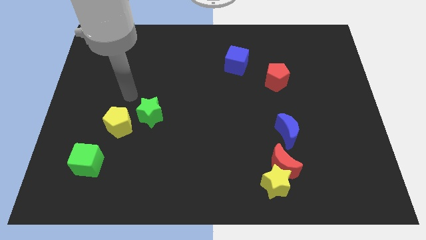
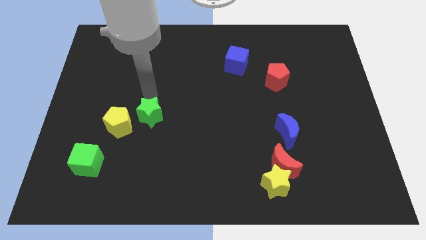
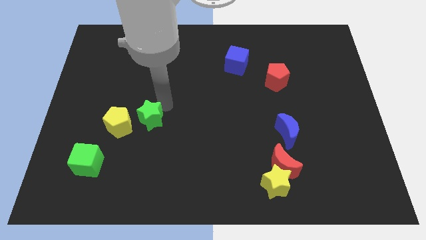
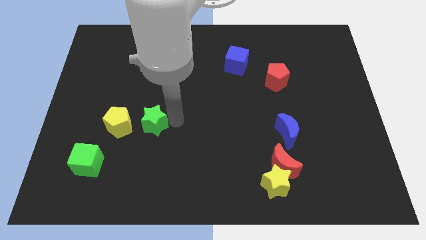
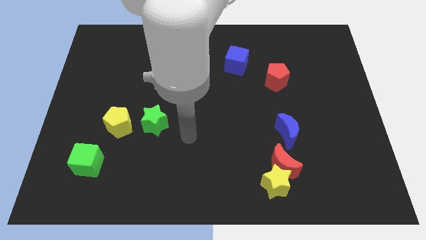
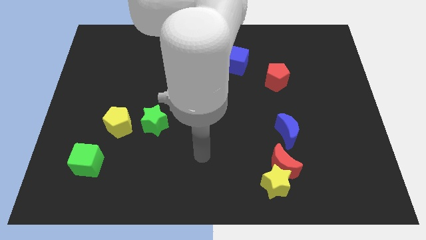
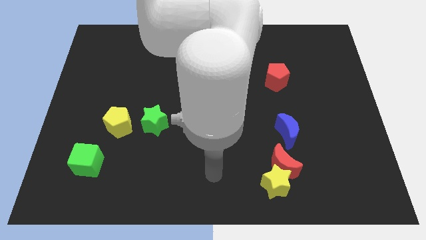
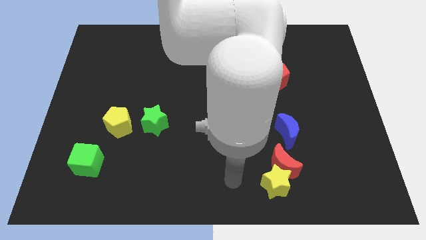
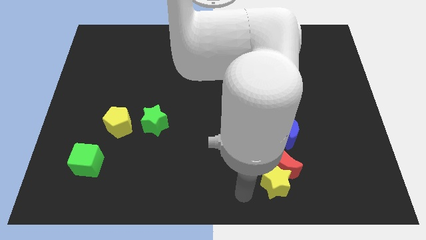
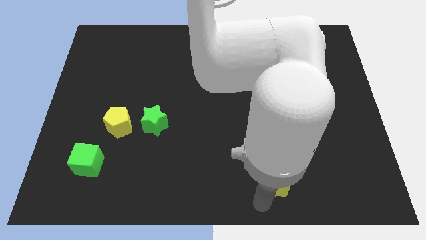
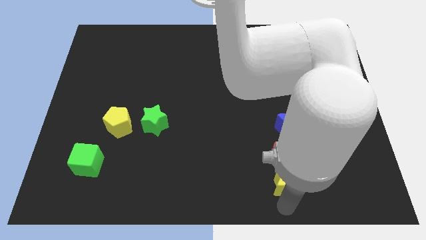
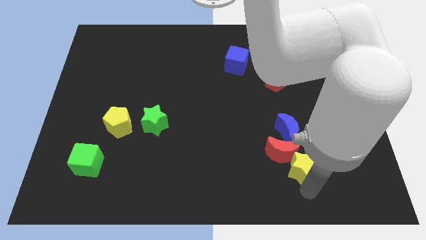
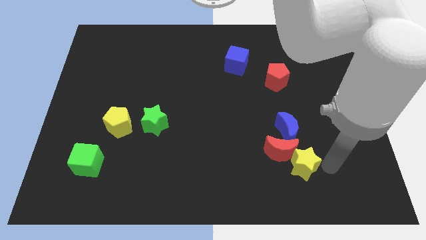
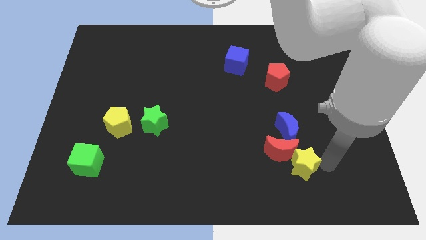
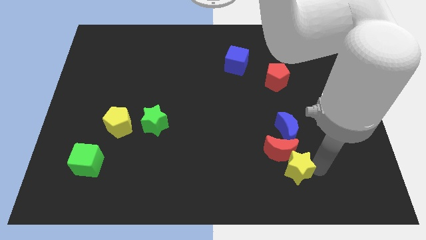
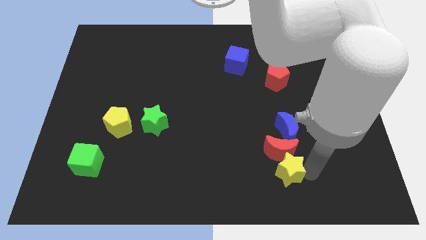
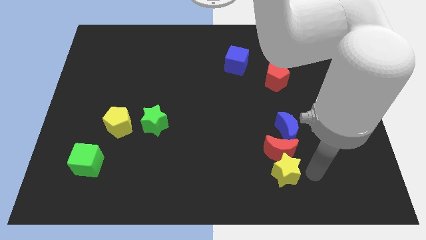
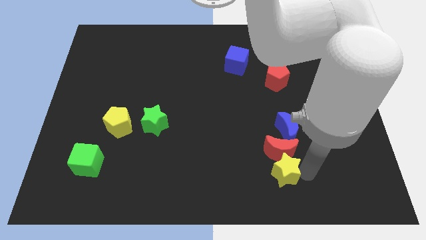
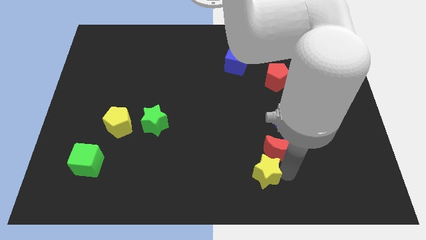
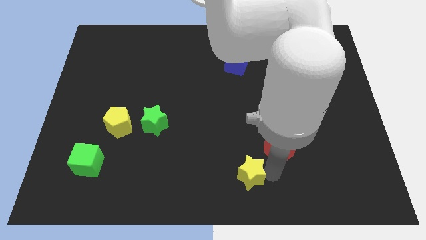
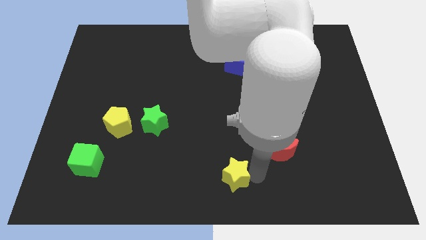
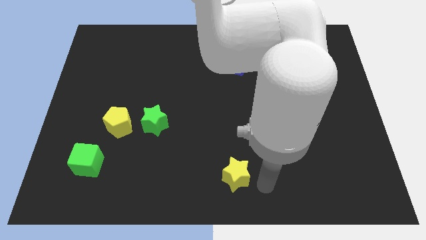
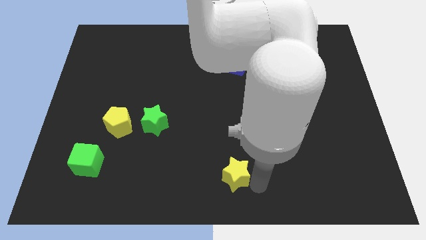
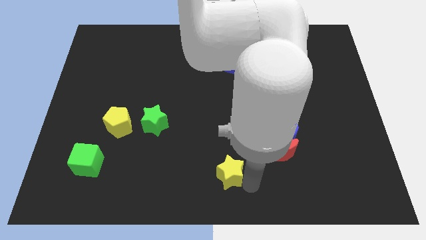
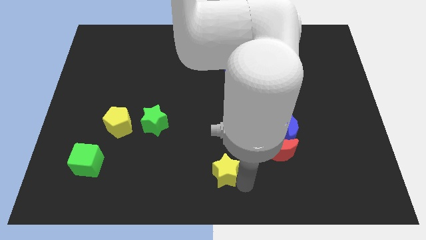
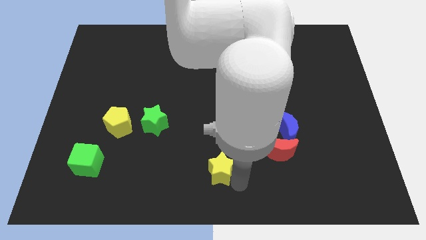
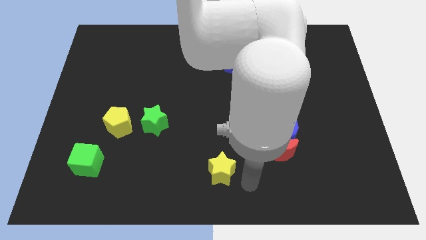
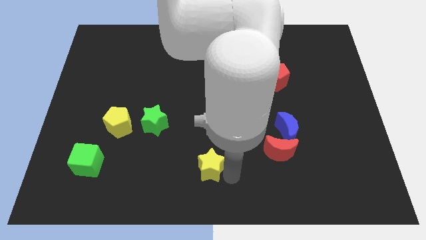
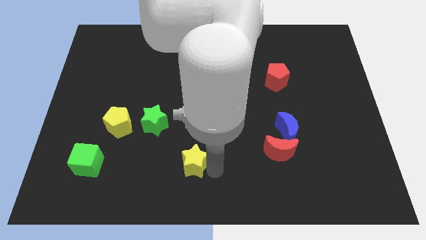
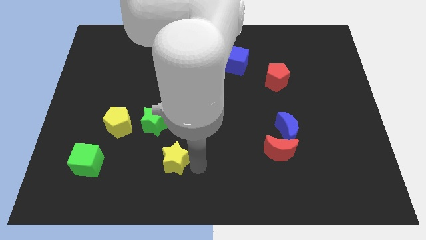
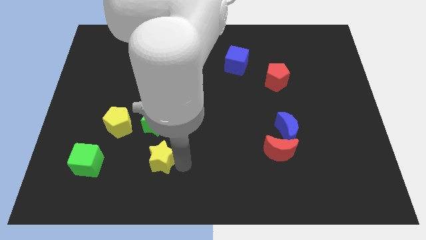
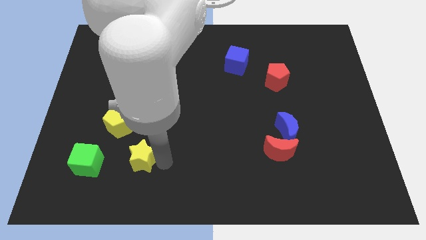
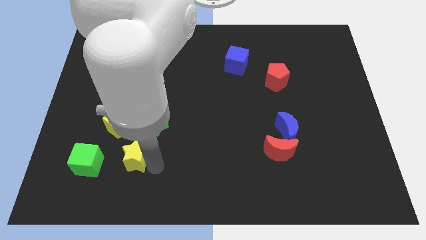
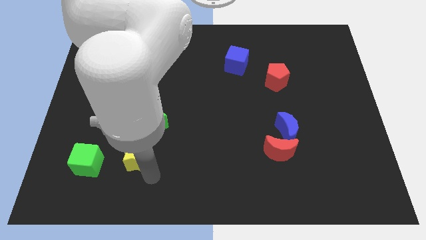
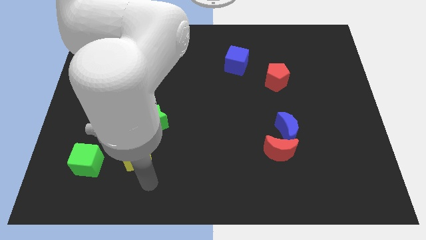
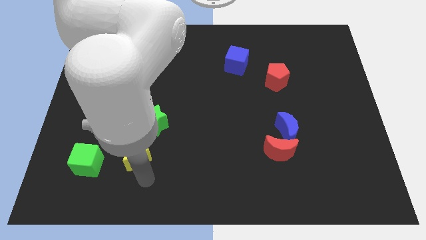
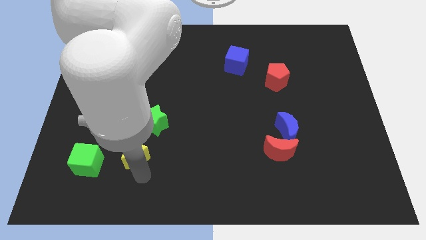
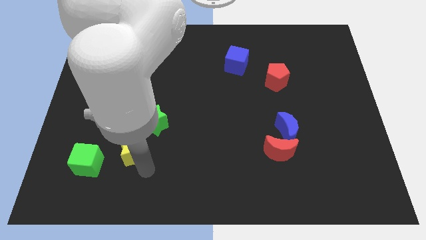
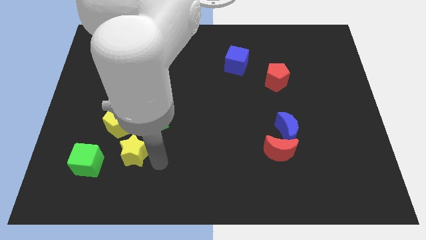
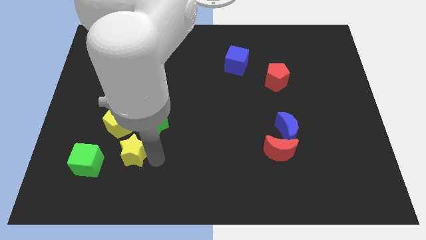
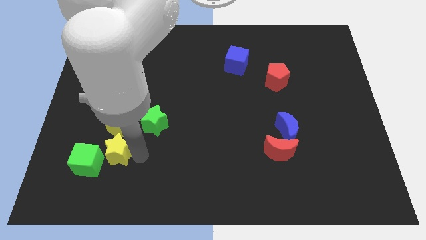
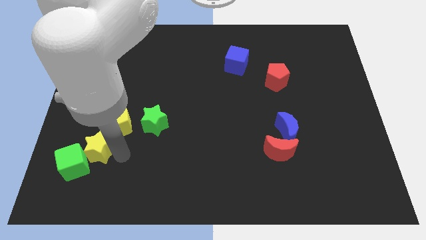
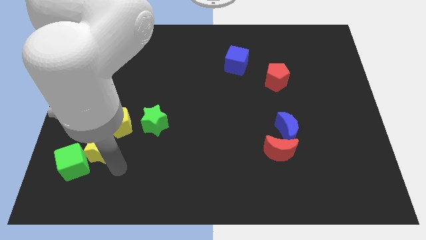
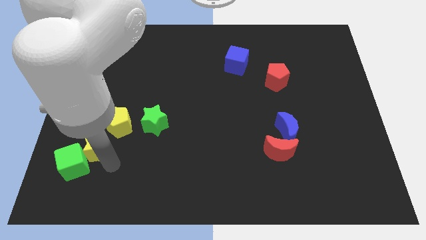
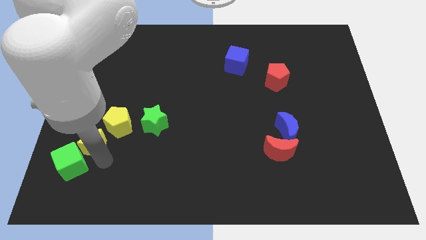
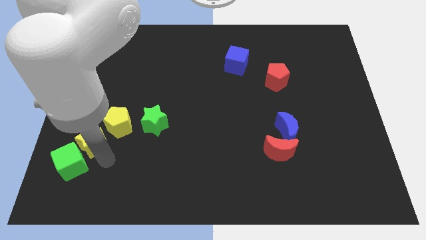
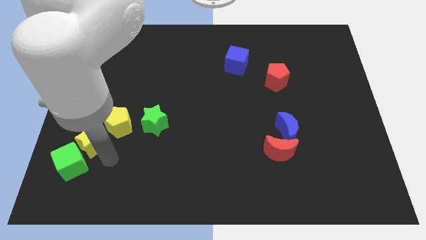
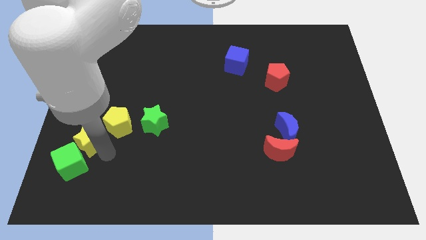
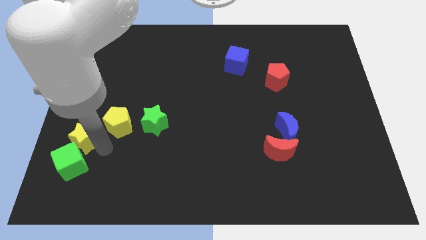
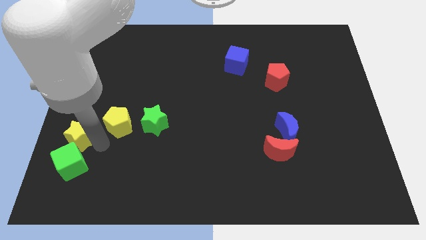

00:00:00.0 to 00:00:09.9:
put the yellow star to the left side of the board

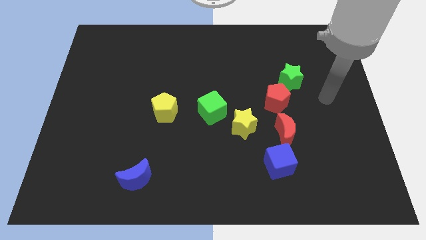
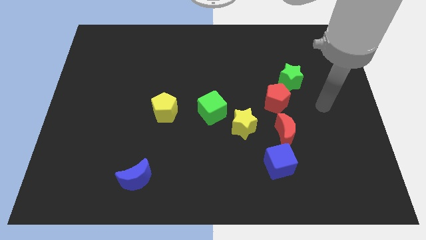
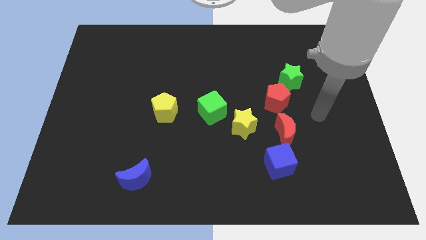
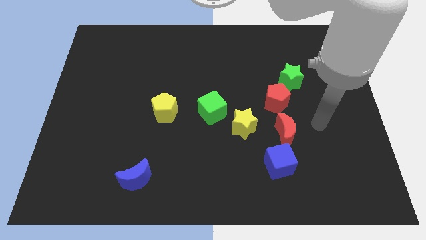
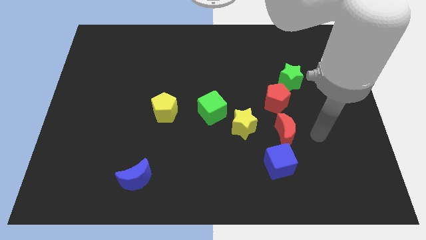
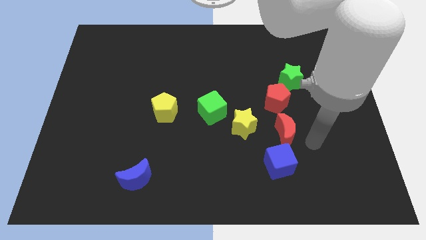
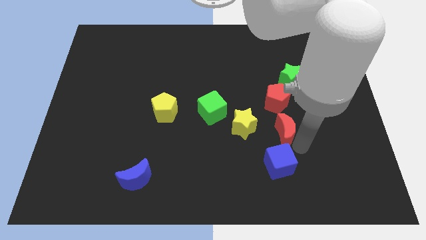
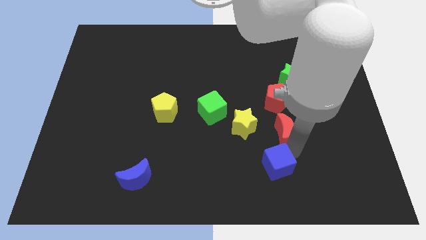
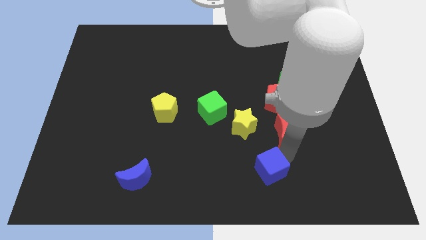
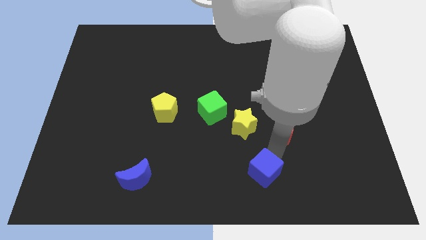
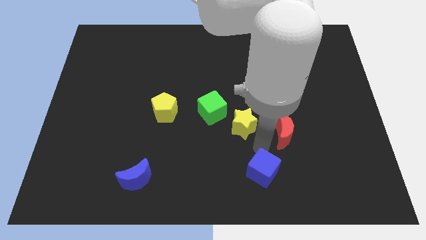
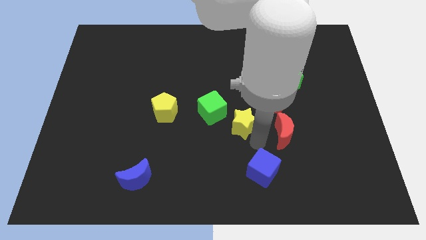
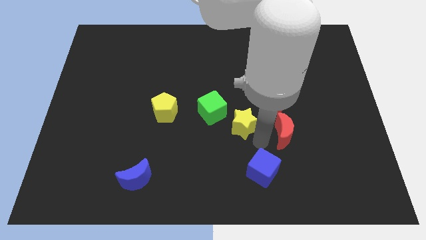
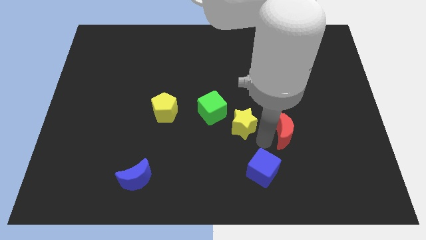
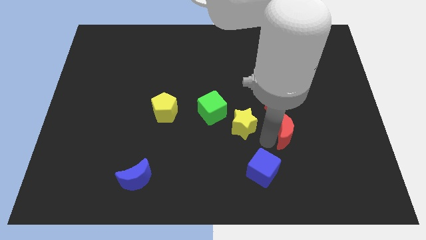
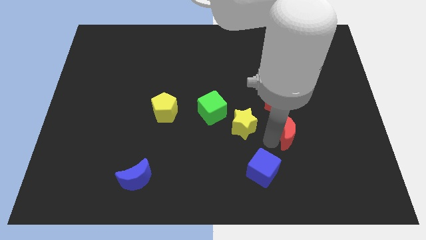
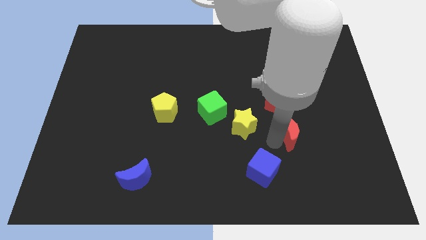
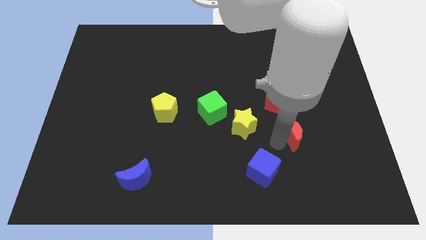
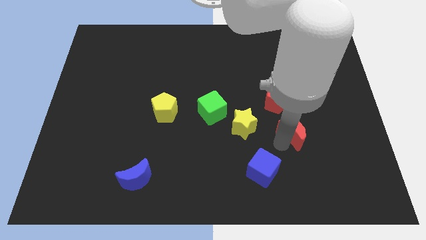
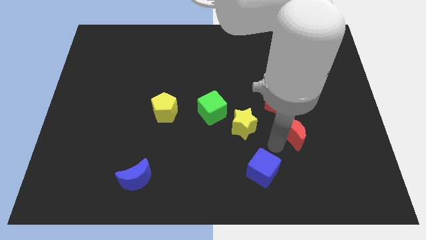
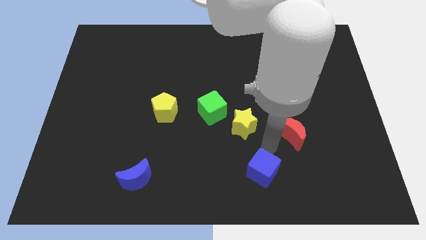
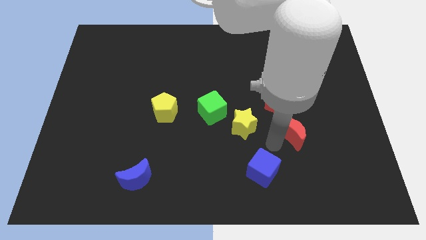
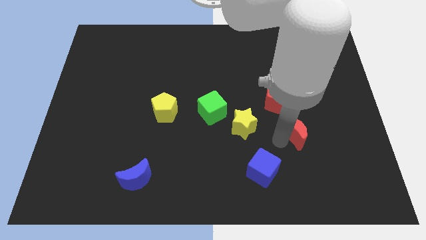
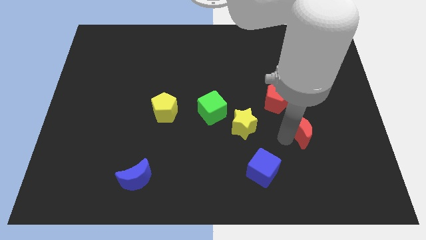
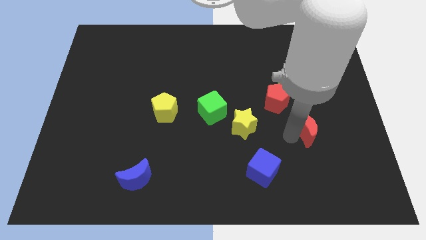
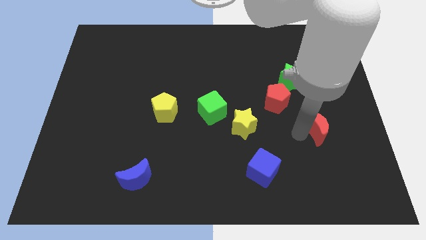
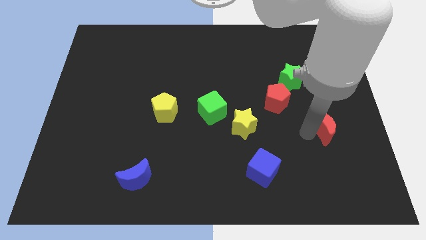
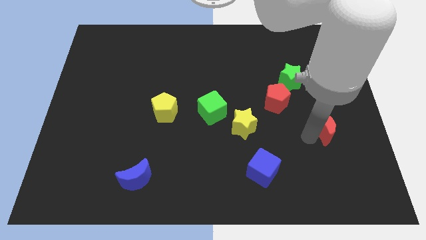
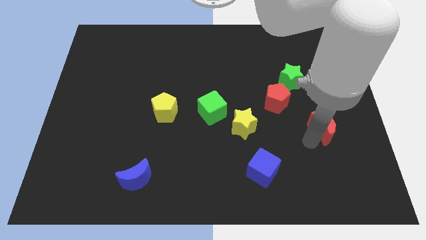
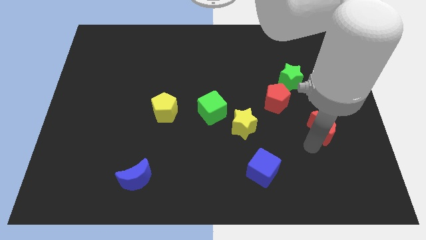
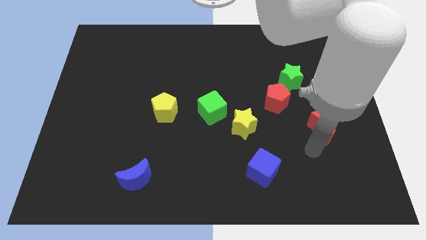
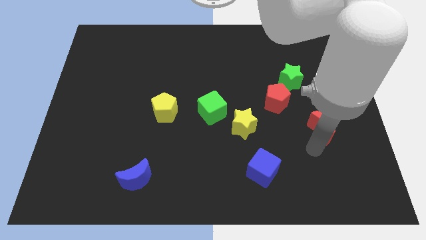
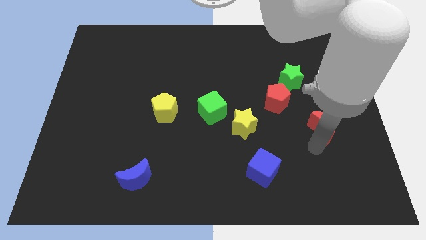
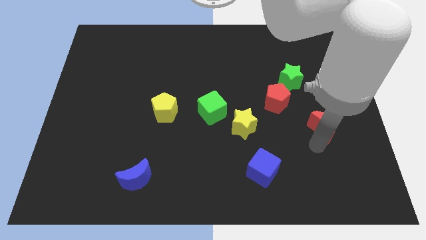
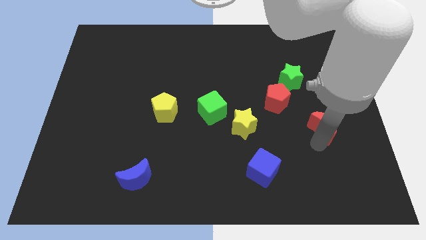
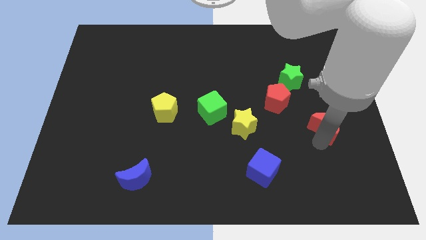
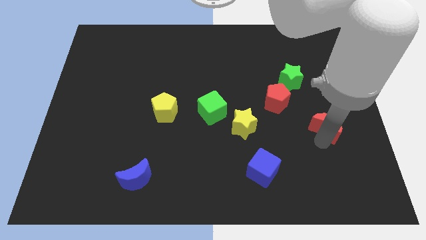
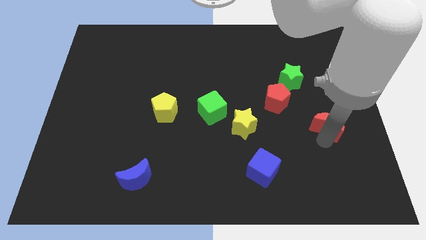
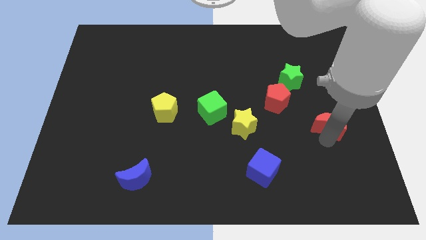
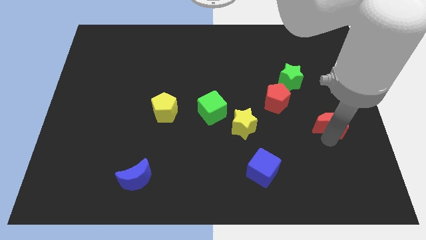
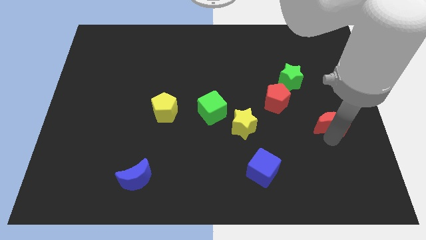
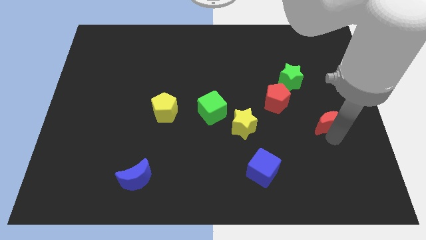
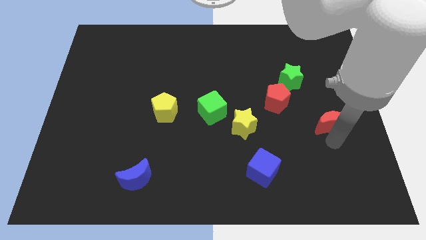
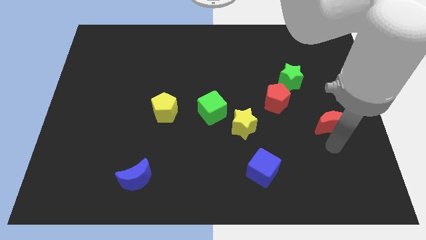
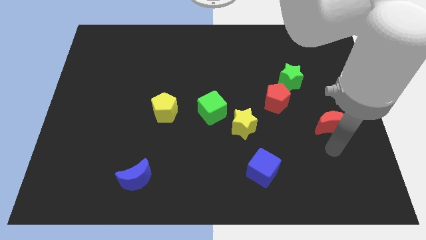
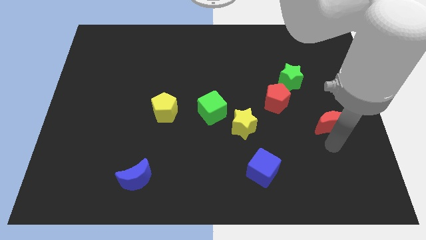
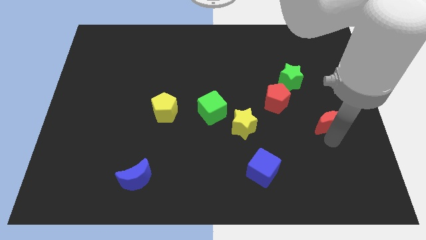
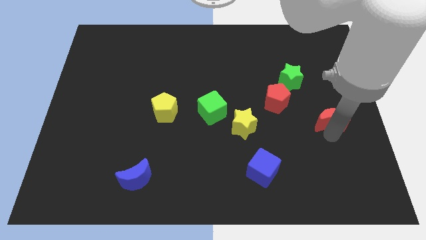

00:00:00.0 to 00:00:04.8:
push the red moon to the center right
